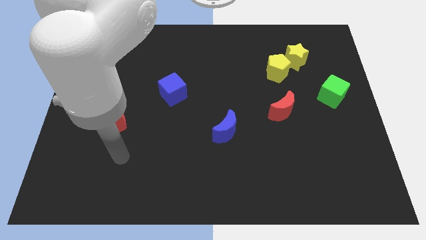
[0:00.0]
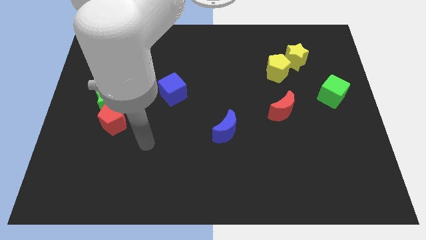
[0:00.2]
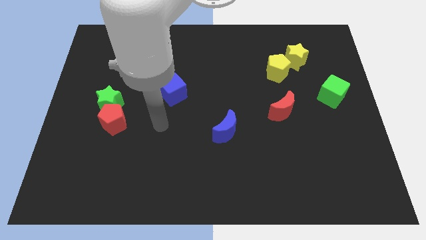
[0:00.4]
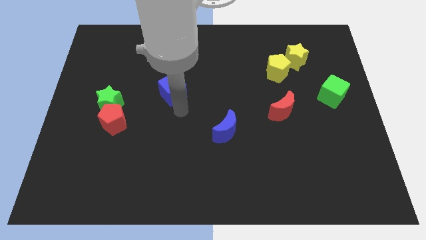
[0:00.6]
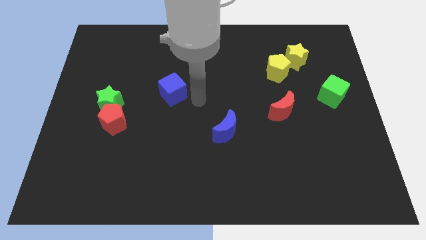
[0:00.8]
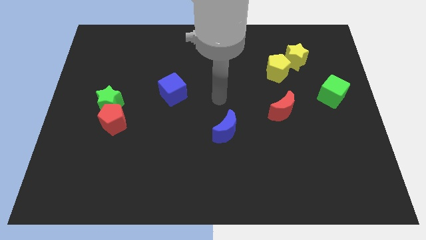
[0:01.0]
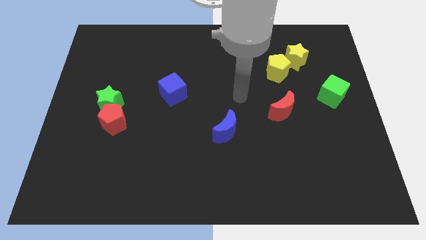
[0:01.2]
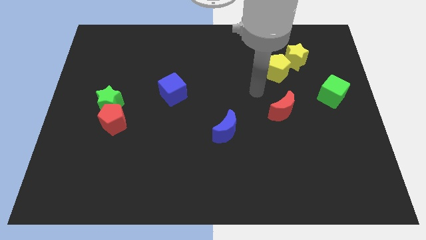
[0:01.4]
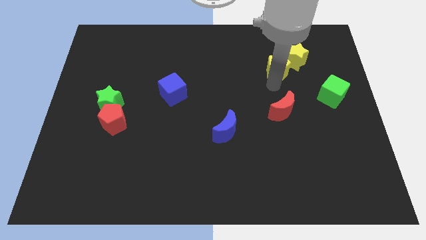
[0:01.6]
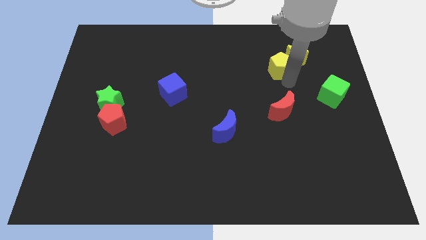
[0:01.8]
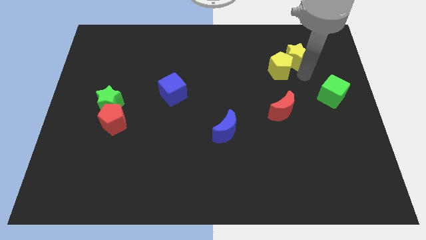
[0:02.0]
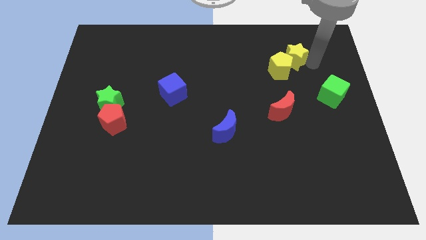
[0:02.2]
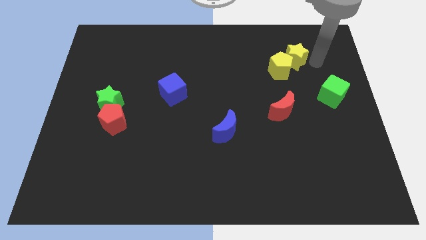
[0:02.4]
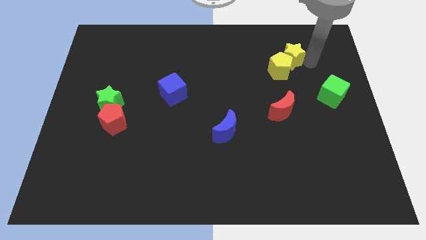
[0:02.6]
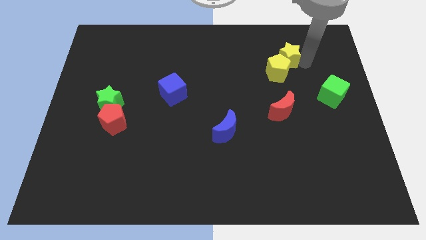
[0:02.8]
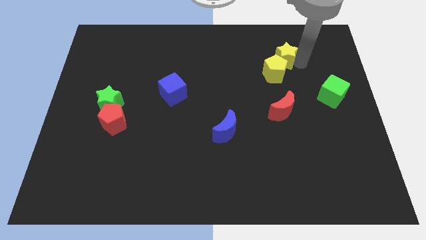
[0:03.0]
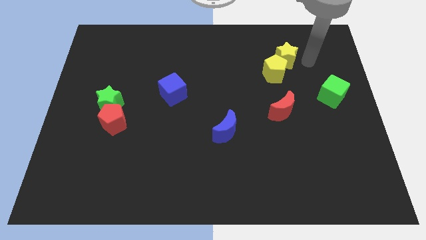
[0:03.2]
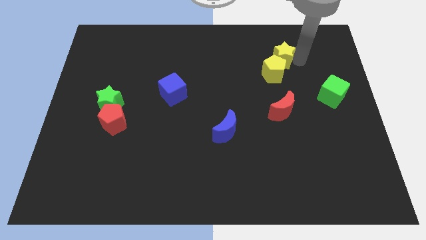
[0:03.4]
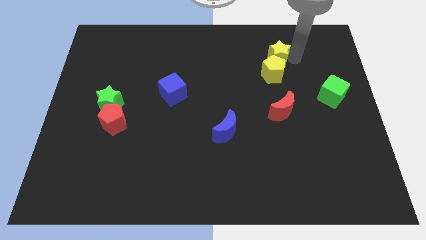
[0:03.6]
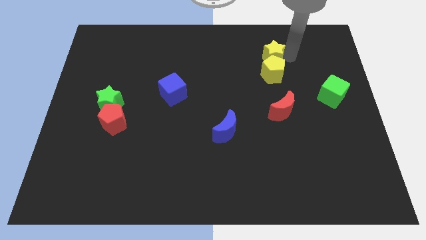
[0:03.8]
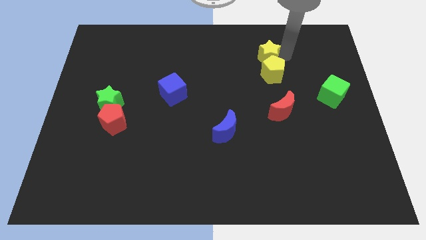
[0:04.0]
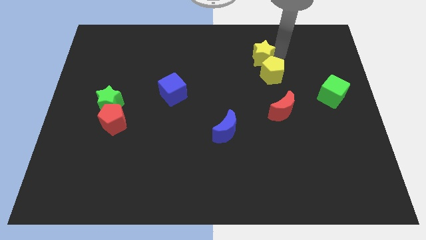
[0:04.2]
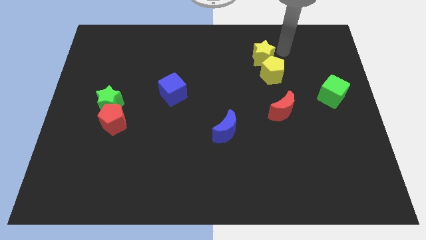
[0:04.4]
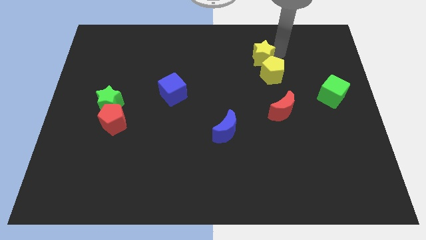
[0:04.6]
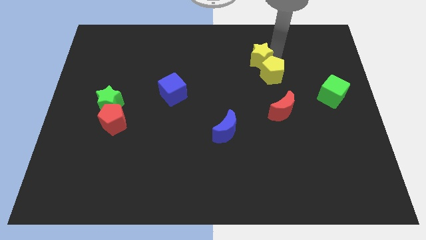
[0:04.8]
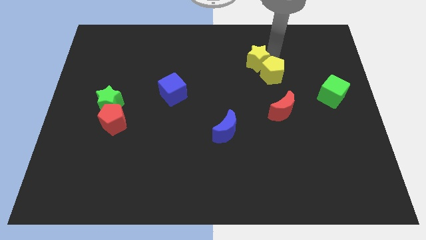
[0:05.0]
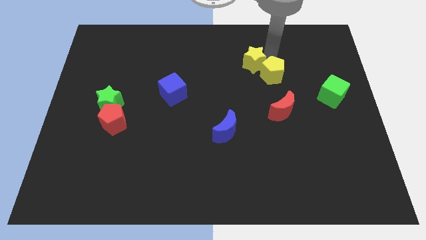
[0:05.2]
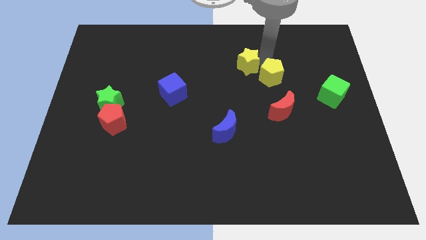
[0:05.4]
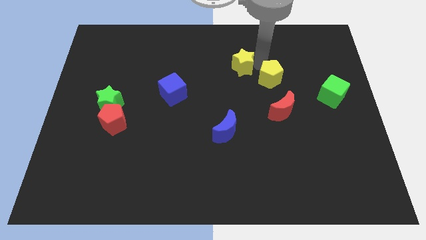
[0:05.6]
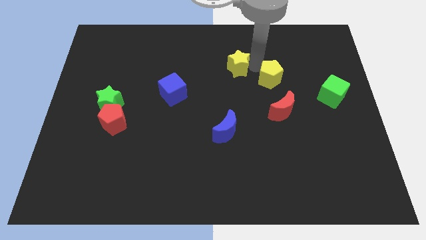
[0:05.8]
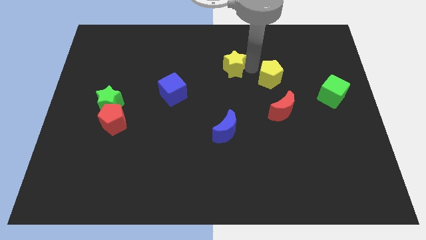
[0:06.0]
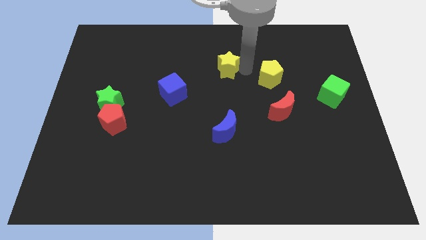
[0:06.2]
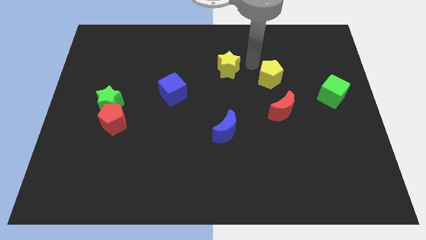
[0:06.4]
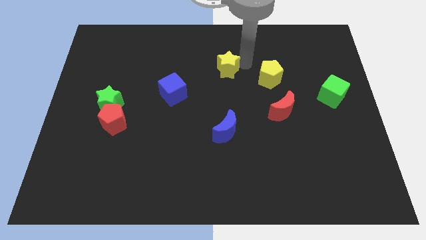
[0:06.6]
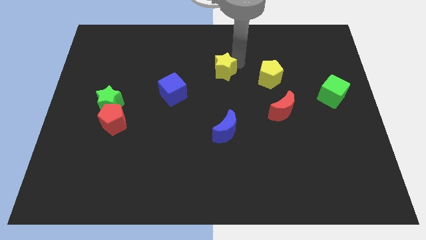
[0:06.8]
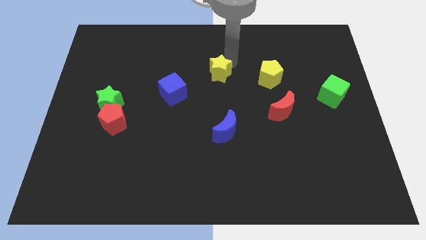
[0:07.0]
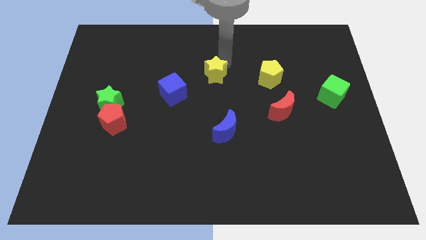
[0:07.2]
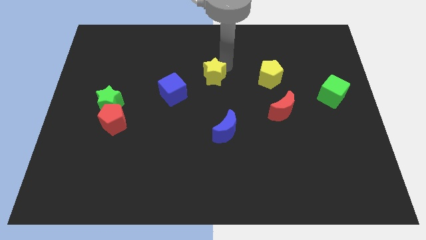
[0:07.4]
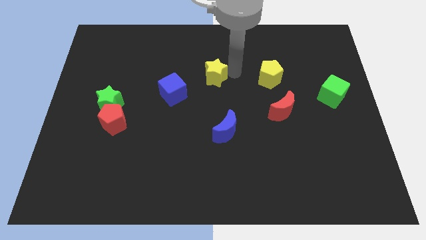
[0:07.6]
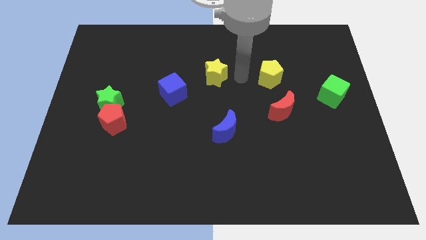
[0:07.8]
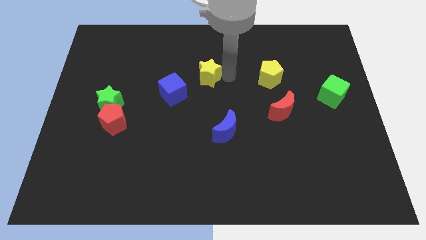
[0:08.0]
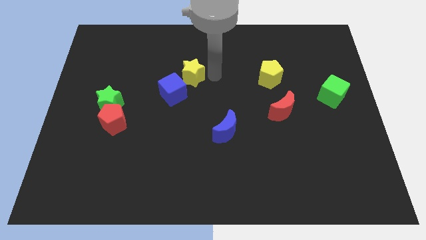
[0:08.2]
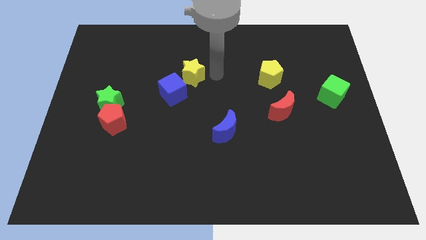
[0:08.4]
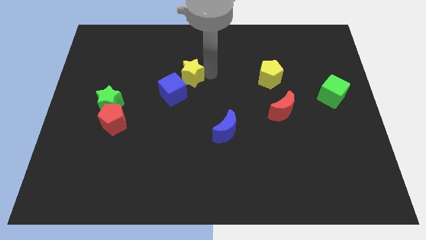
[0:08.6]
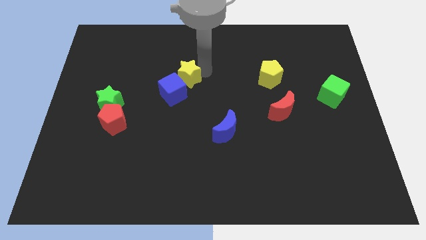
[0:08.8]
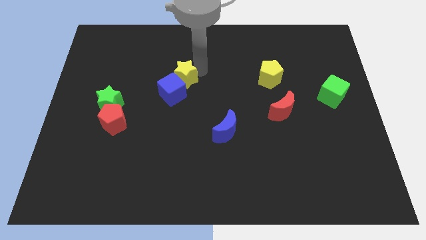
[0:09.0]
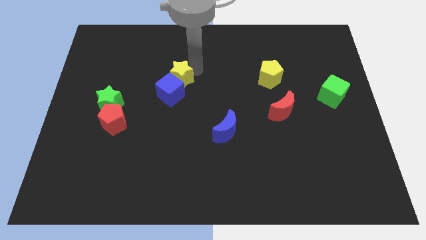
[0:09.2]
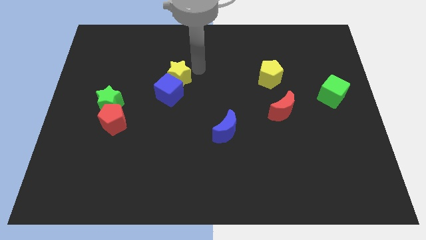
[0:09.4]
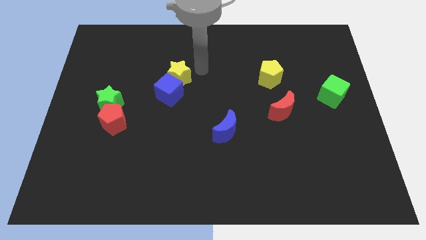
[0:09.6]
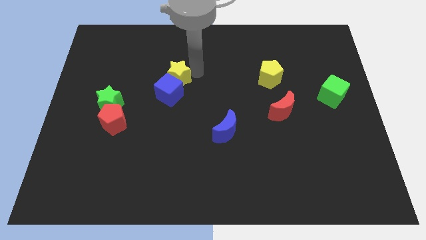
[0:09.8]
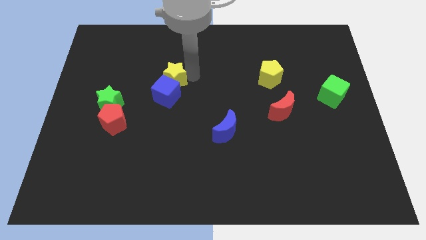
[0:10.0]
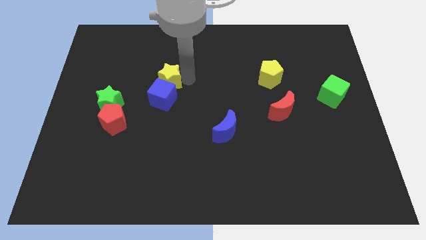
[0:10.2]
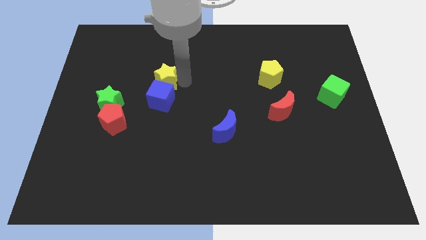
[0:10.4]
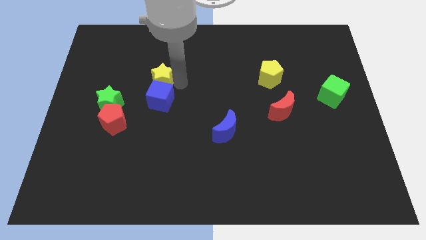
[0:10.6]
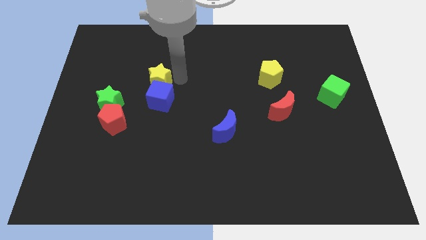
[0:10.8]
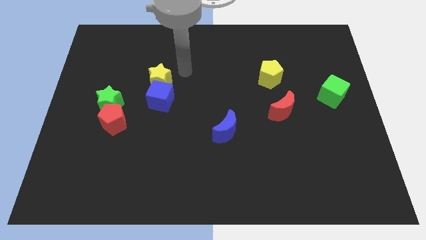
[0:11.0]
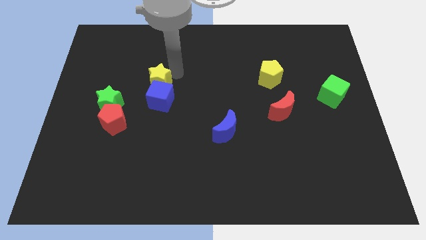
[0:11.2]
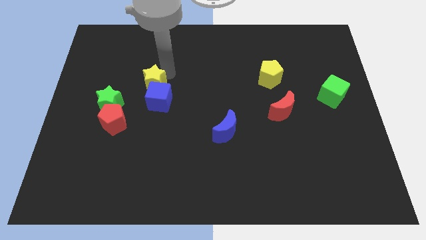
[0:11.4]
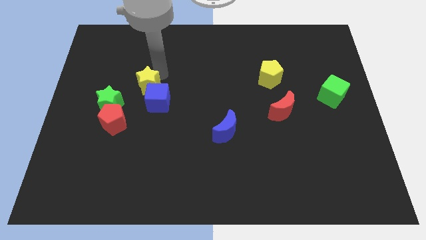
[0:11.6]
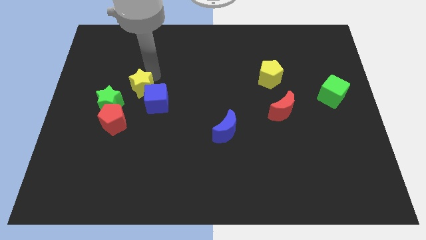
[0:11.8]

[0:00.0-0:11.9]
slide the yellow star to the left side of the blue cube

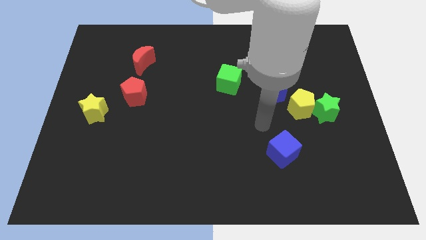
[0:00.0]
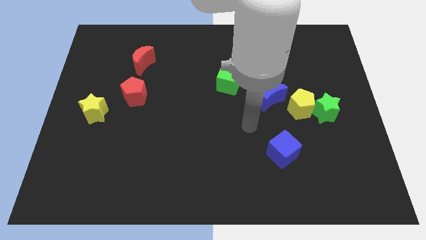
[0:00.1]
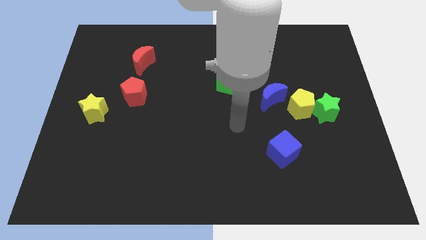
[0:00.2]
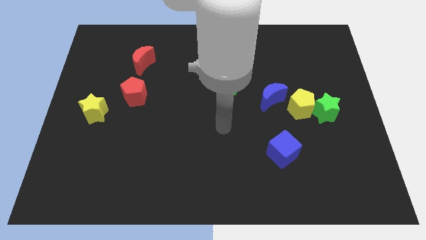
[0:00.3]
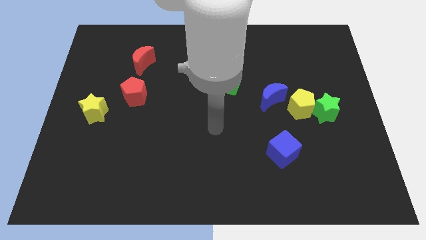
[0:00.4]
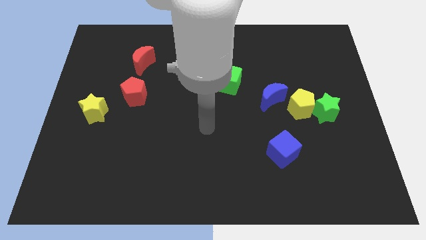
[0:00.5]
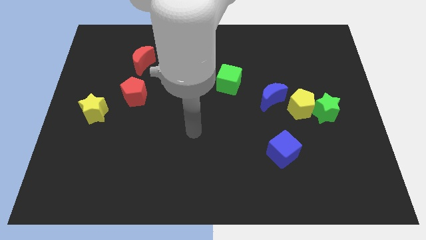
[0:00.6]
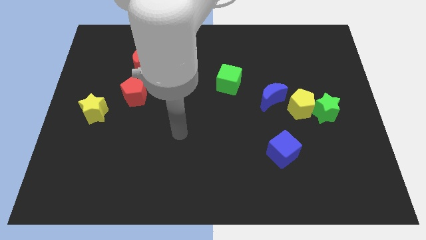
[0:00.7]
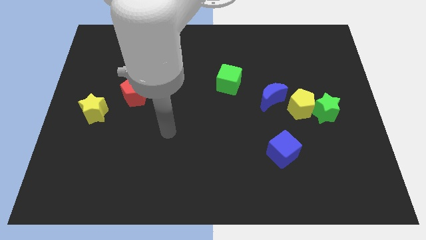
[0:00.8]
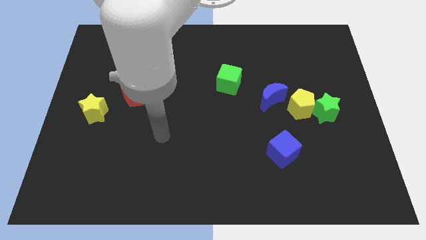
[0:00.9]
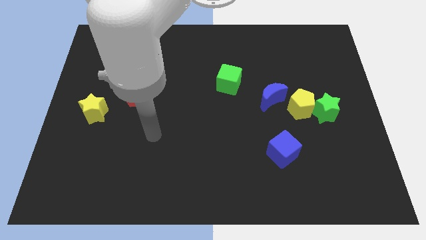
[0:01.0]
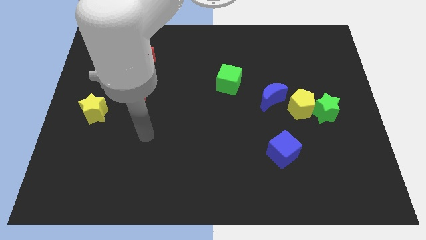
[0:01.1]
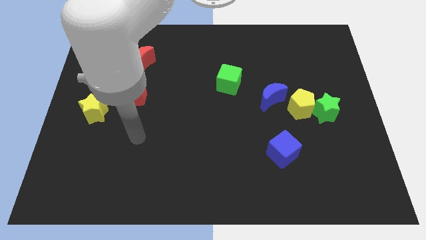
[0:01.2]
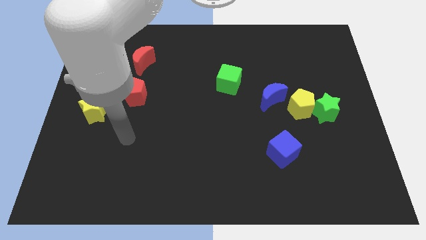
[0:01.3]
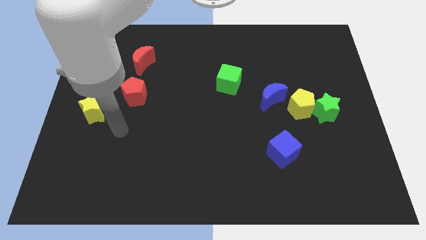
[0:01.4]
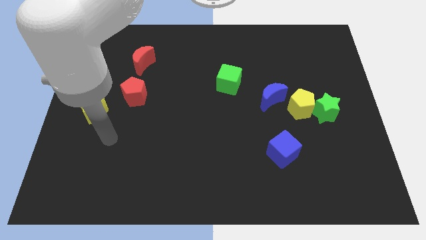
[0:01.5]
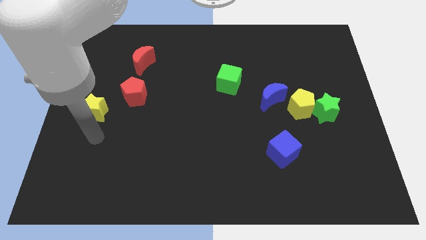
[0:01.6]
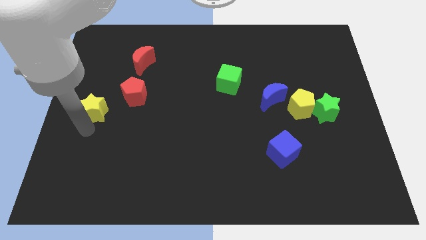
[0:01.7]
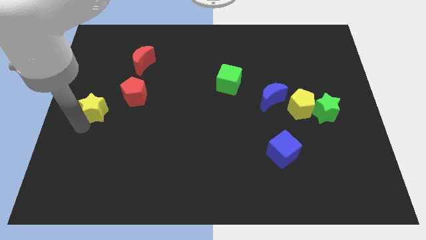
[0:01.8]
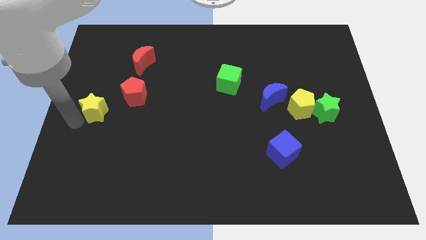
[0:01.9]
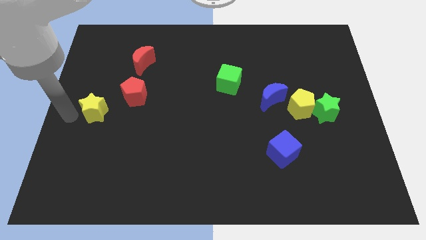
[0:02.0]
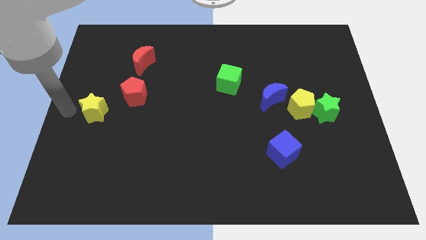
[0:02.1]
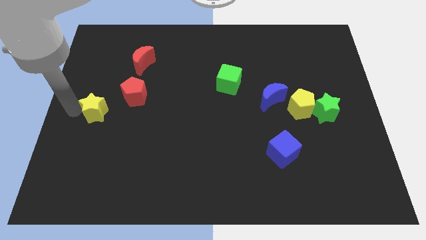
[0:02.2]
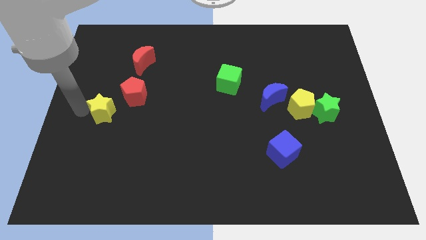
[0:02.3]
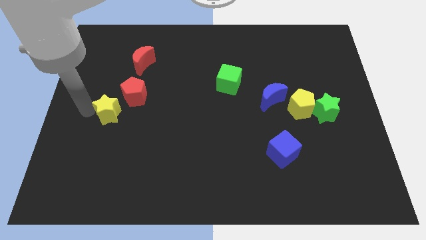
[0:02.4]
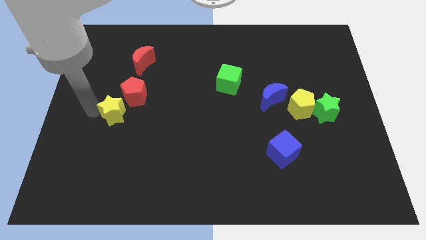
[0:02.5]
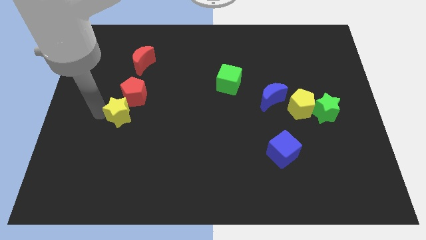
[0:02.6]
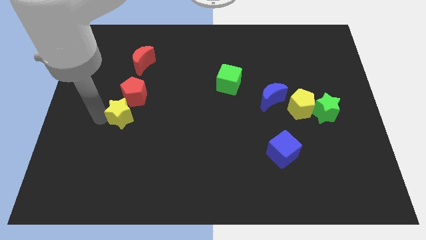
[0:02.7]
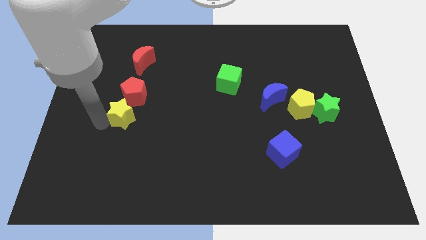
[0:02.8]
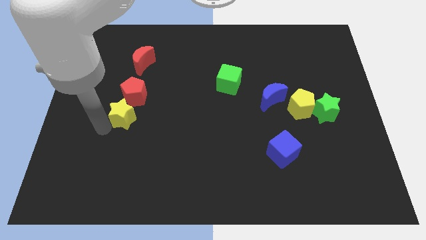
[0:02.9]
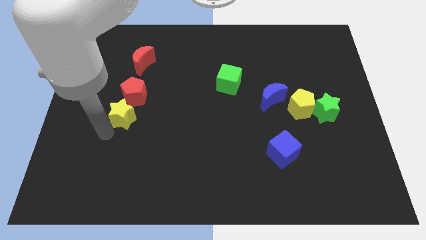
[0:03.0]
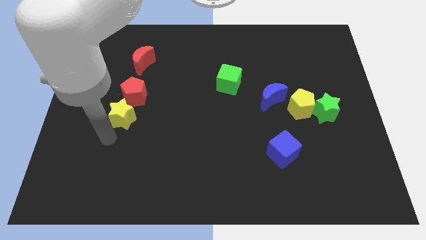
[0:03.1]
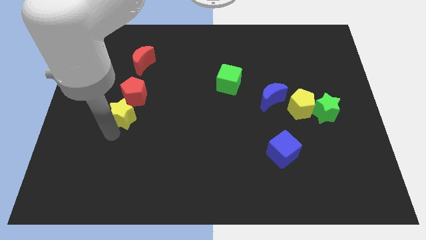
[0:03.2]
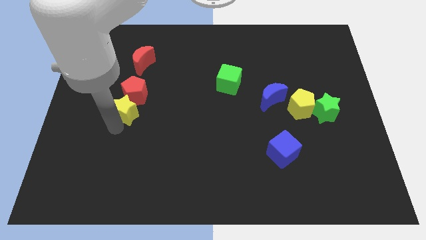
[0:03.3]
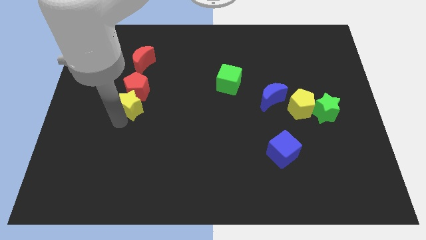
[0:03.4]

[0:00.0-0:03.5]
push the yellow star to the bottom of the red moon
